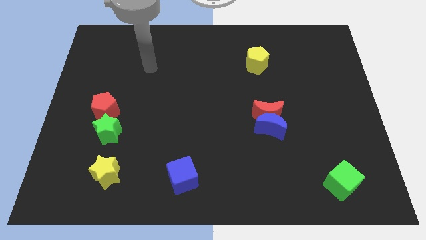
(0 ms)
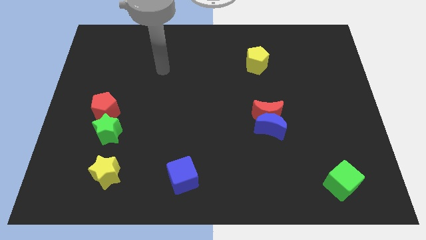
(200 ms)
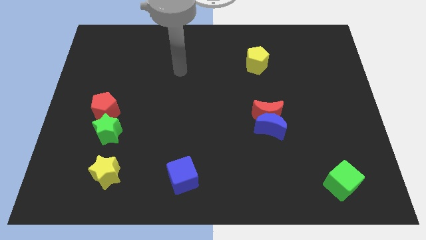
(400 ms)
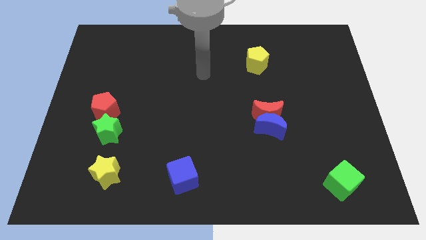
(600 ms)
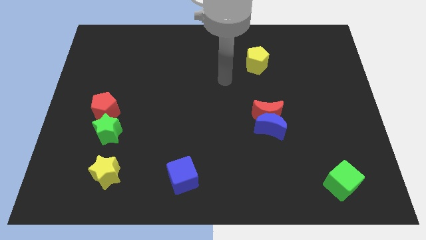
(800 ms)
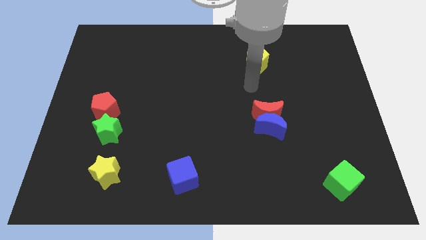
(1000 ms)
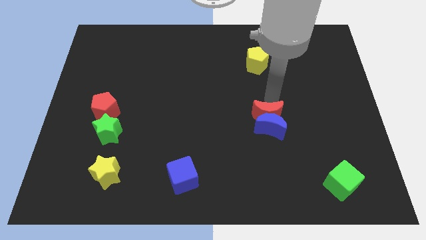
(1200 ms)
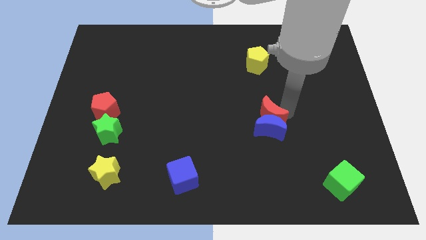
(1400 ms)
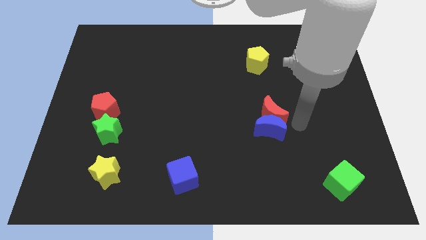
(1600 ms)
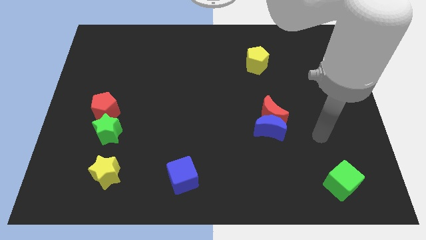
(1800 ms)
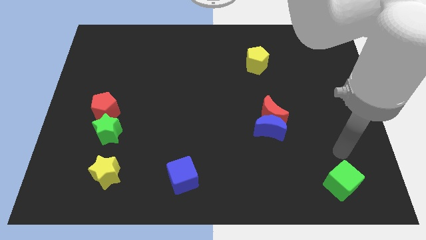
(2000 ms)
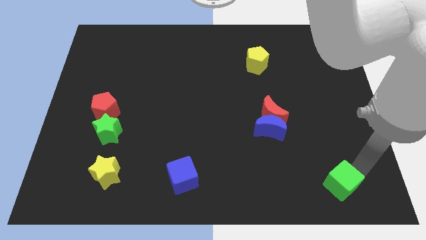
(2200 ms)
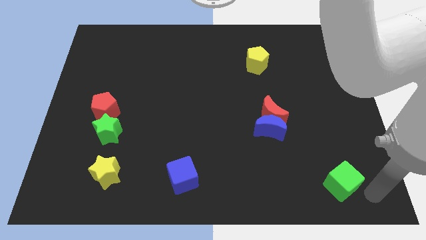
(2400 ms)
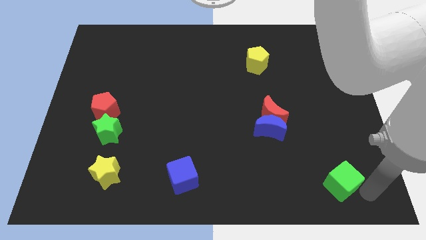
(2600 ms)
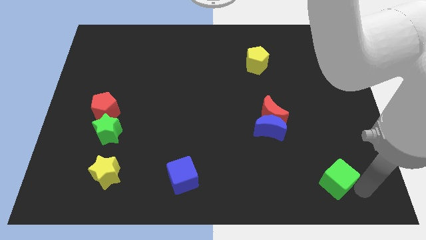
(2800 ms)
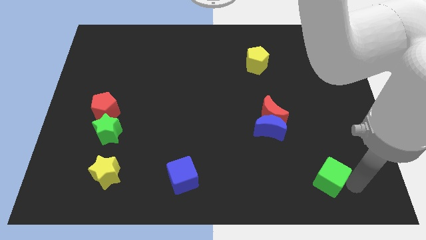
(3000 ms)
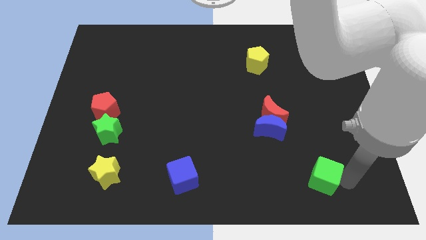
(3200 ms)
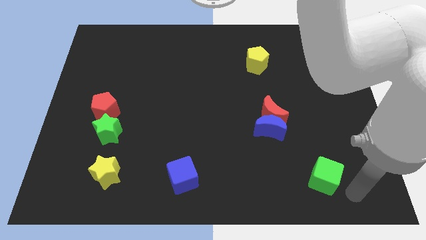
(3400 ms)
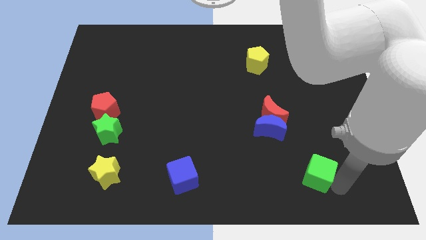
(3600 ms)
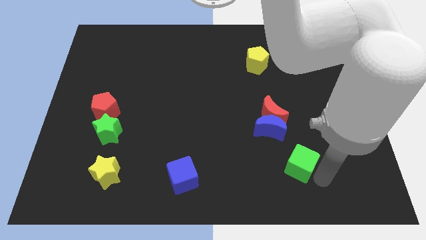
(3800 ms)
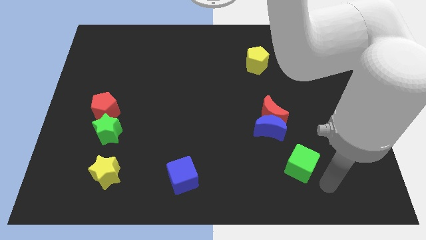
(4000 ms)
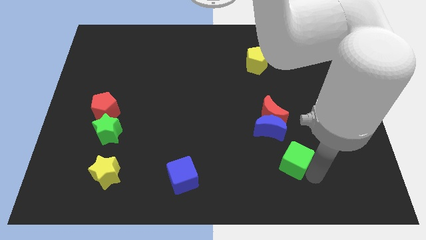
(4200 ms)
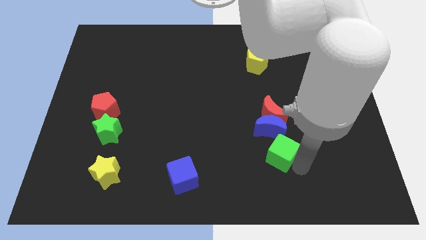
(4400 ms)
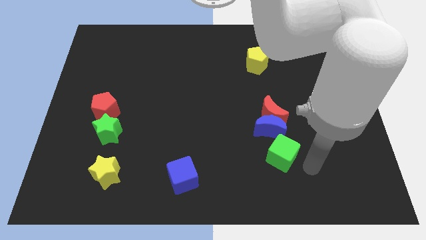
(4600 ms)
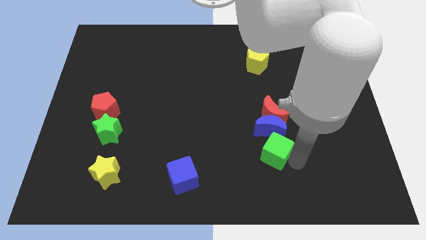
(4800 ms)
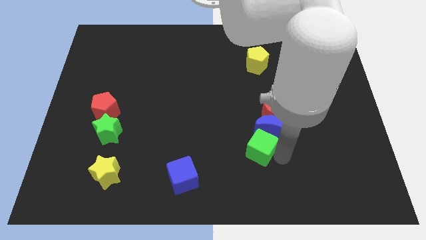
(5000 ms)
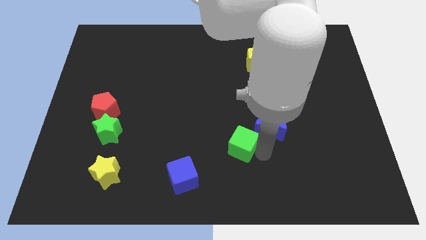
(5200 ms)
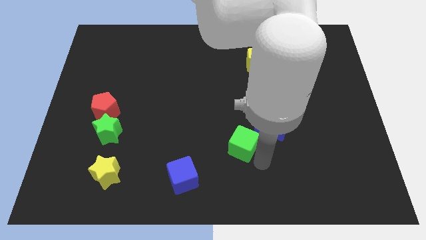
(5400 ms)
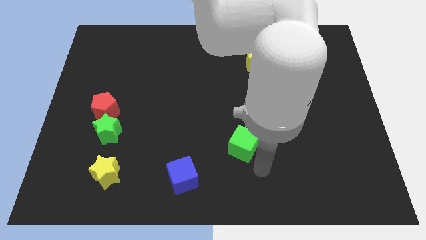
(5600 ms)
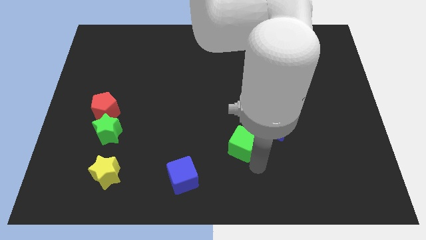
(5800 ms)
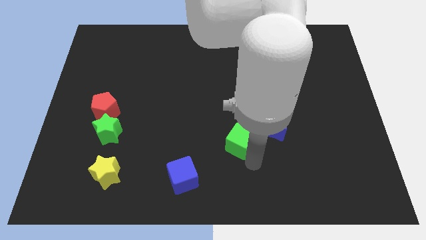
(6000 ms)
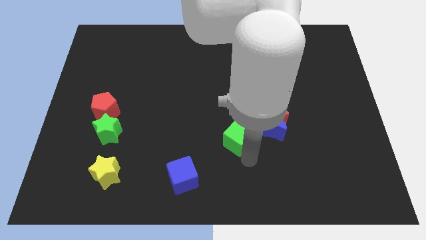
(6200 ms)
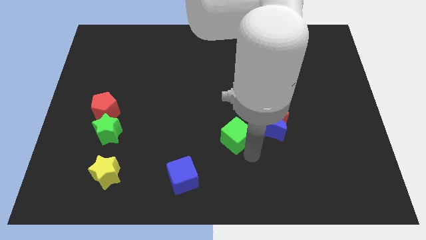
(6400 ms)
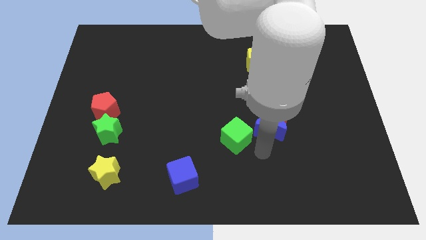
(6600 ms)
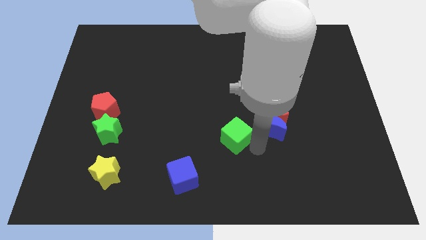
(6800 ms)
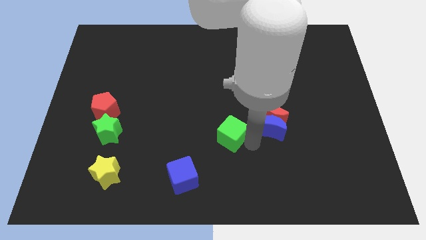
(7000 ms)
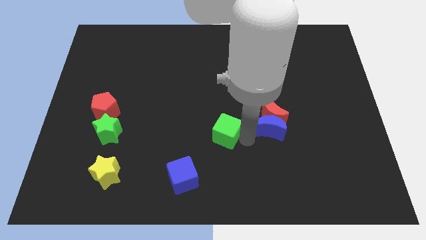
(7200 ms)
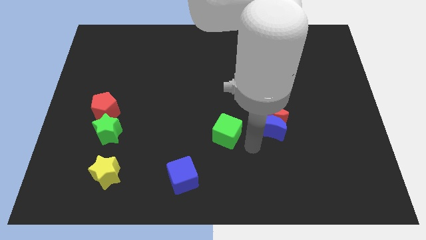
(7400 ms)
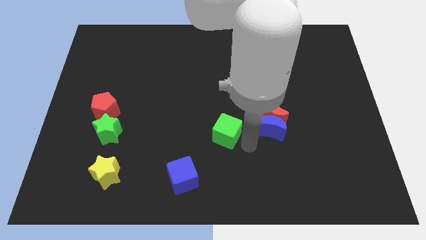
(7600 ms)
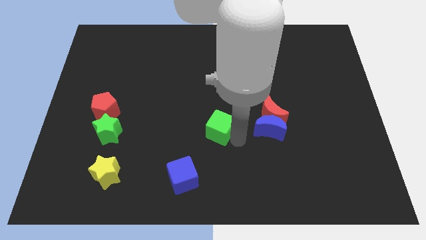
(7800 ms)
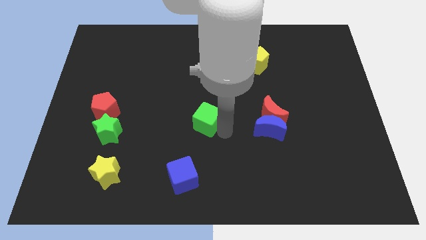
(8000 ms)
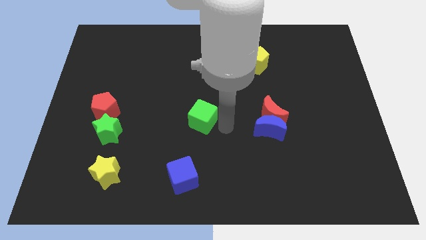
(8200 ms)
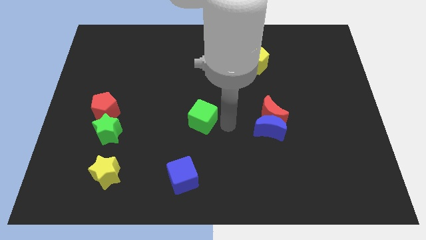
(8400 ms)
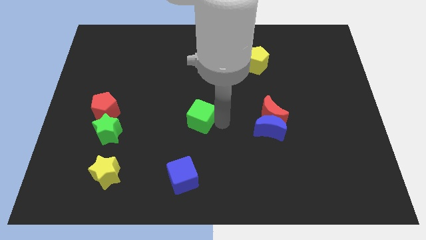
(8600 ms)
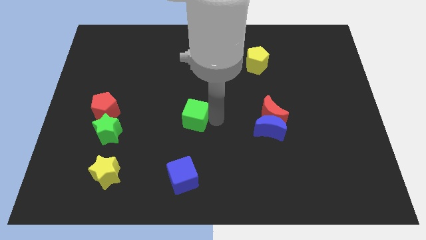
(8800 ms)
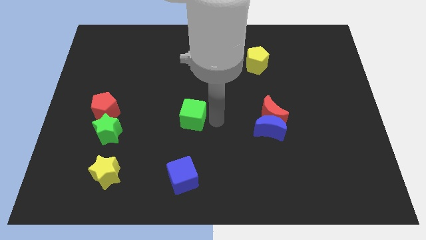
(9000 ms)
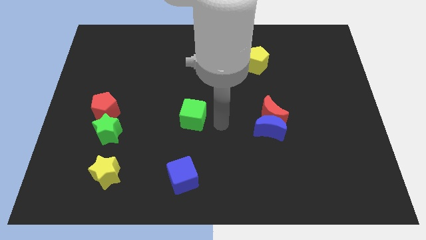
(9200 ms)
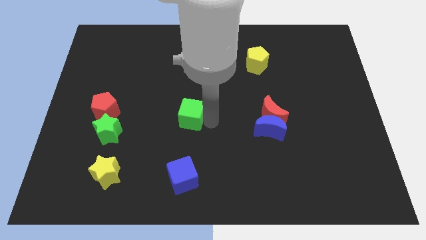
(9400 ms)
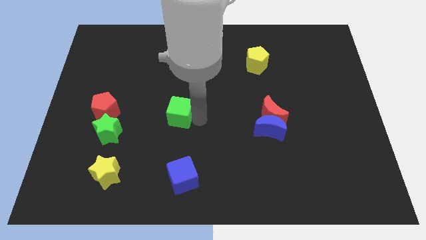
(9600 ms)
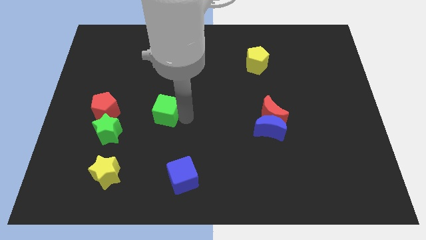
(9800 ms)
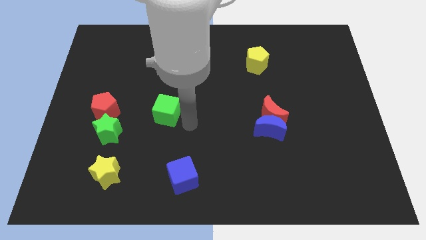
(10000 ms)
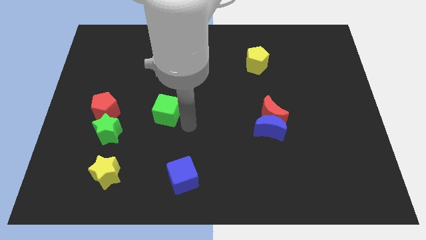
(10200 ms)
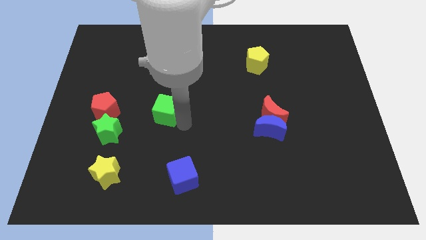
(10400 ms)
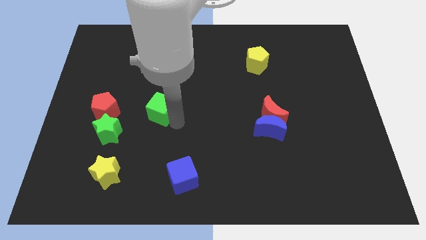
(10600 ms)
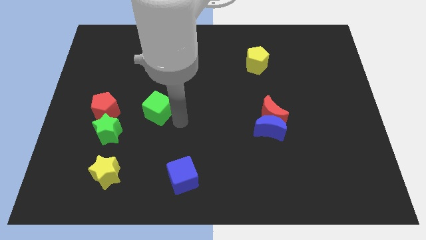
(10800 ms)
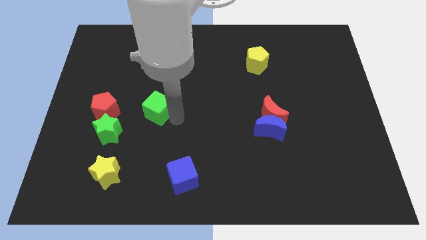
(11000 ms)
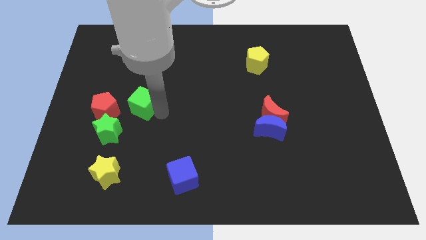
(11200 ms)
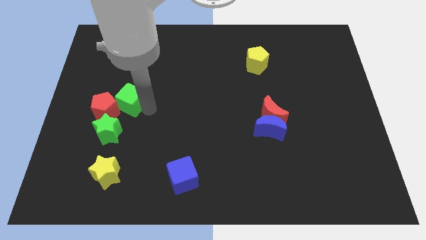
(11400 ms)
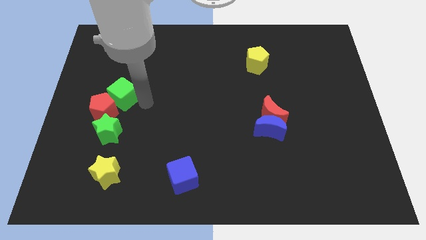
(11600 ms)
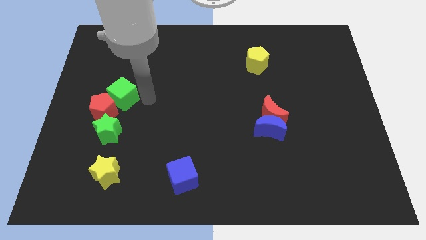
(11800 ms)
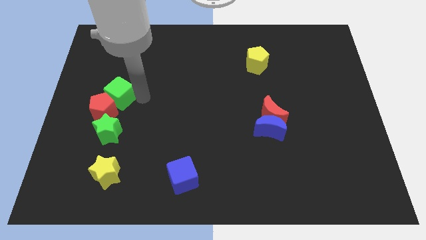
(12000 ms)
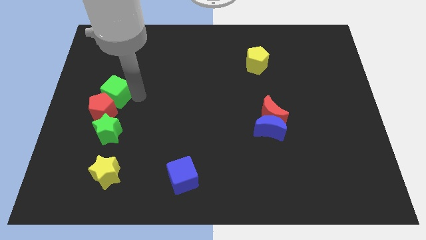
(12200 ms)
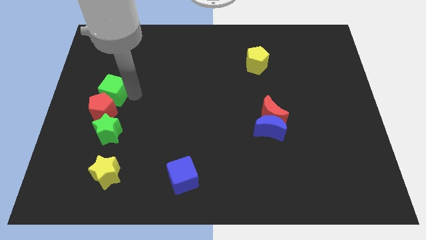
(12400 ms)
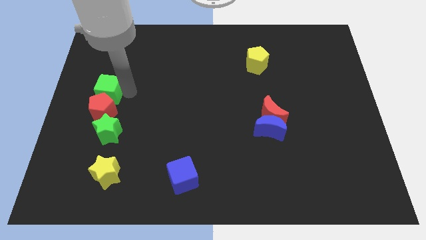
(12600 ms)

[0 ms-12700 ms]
push the green cube to the left side

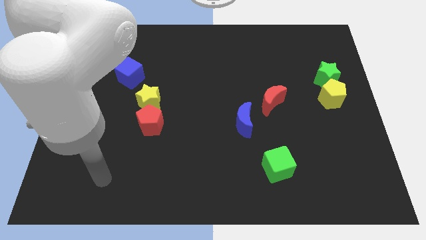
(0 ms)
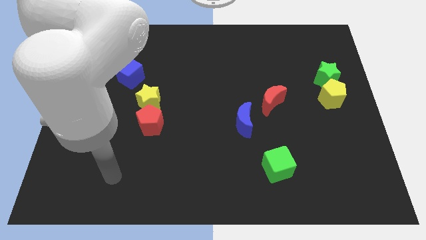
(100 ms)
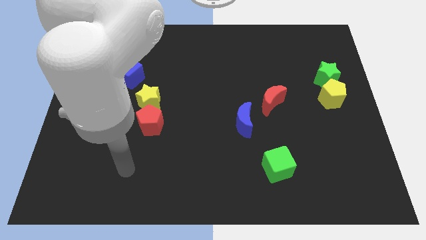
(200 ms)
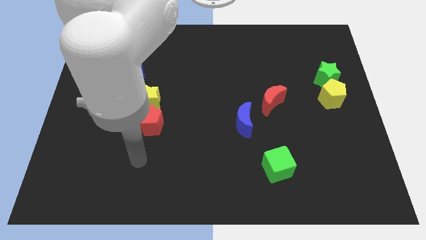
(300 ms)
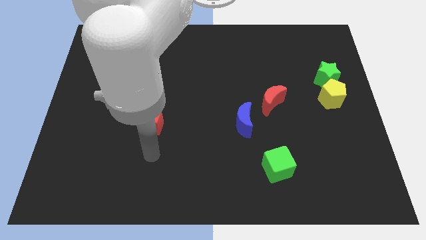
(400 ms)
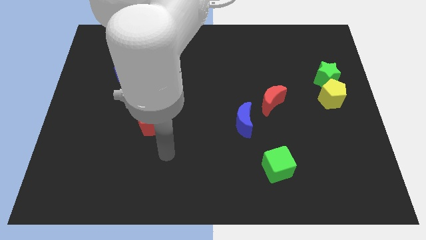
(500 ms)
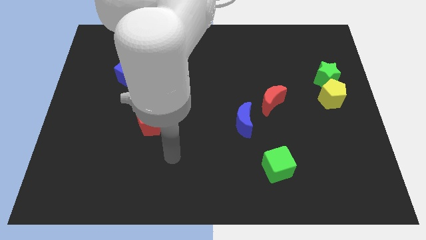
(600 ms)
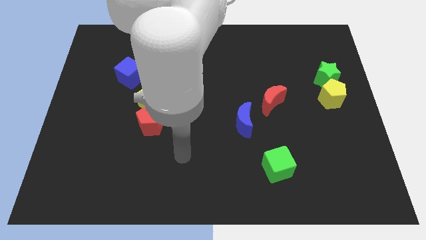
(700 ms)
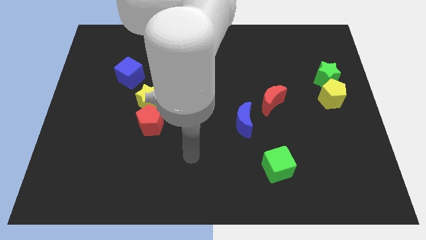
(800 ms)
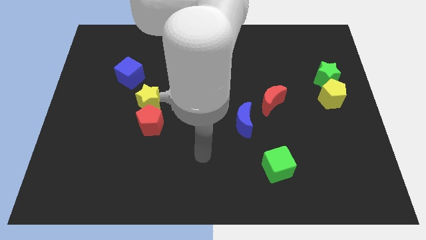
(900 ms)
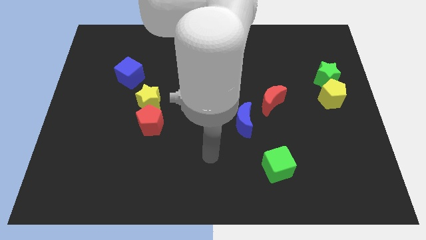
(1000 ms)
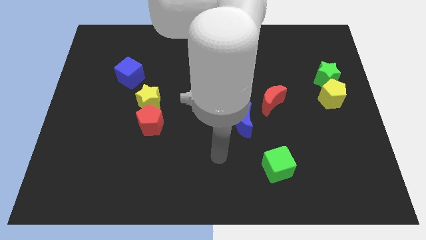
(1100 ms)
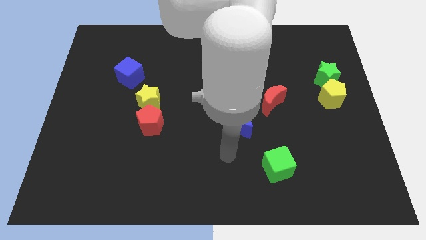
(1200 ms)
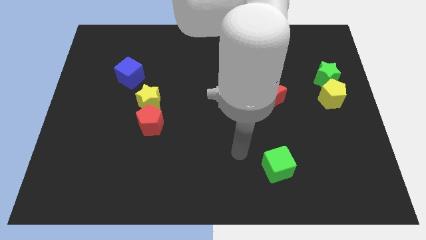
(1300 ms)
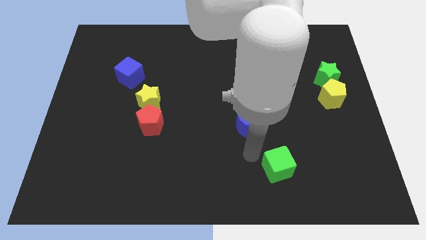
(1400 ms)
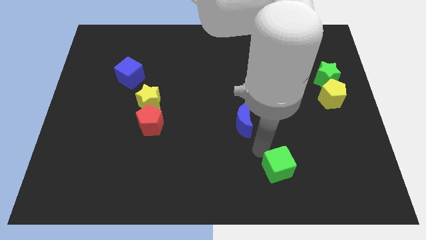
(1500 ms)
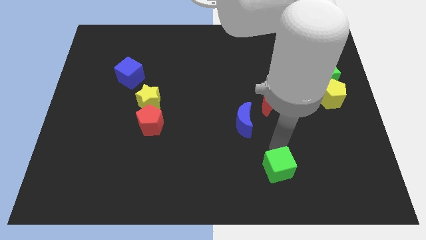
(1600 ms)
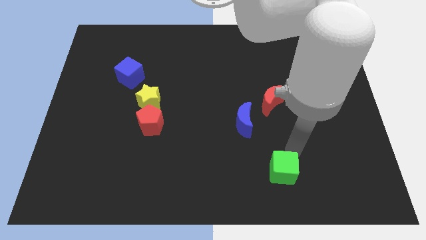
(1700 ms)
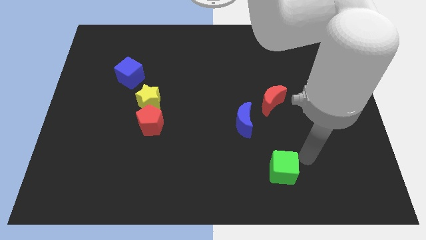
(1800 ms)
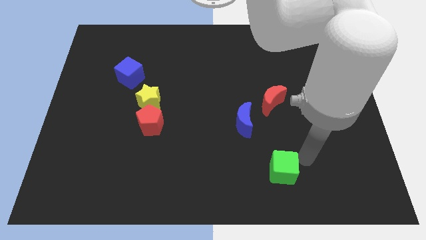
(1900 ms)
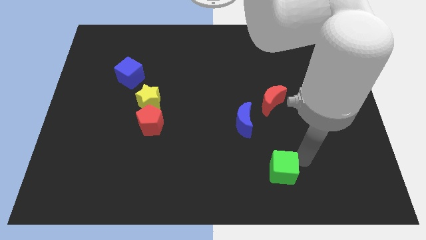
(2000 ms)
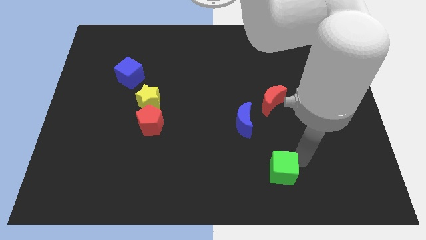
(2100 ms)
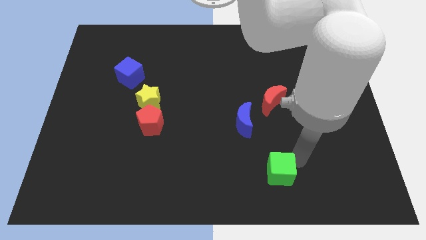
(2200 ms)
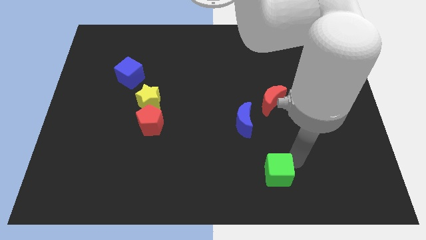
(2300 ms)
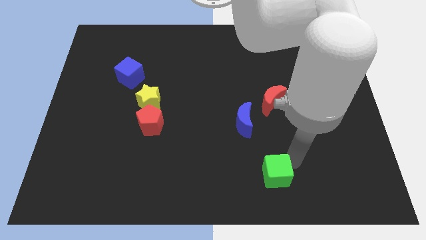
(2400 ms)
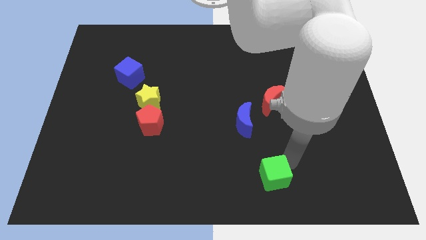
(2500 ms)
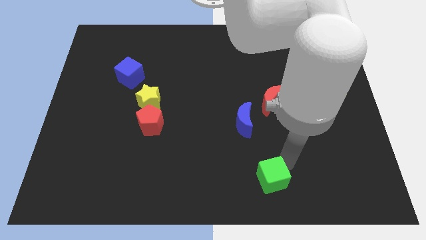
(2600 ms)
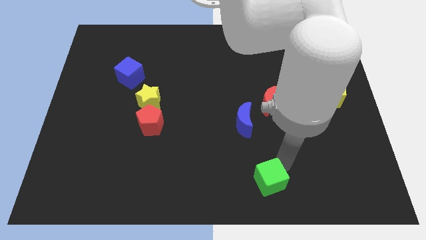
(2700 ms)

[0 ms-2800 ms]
slide the green cube to the bottom
